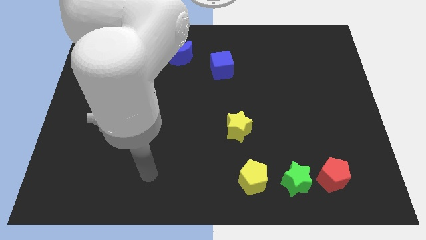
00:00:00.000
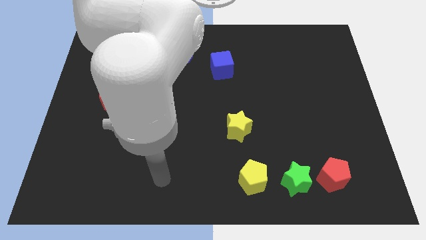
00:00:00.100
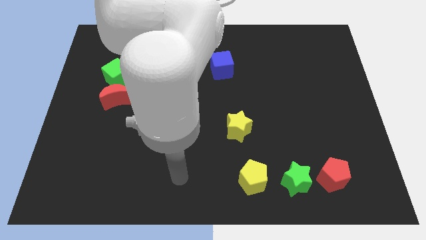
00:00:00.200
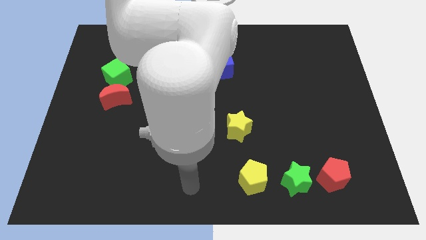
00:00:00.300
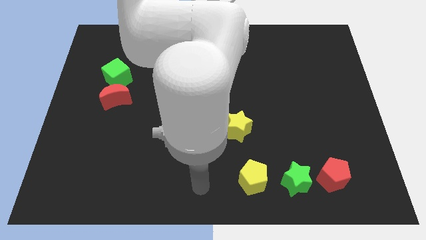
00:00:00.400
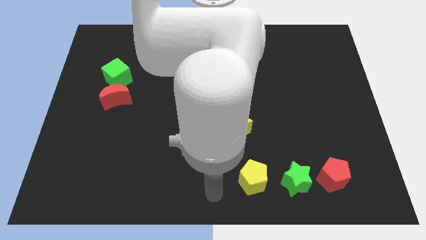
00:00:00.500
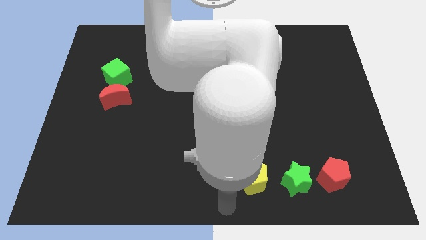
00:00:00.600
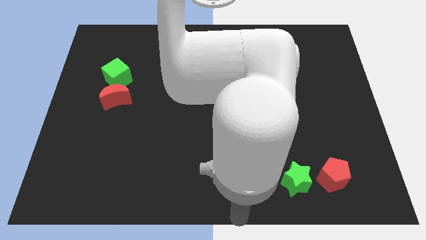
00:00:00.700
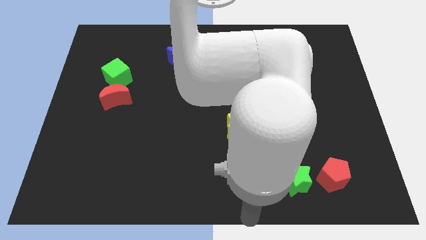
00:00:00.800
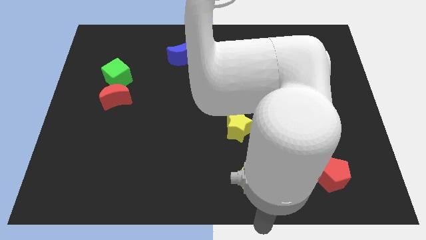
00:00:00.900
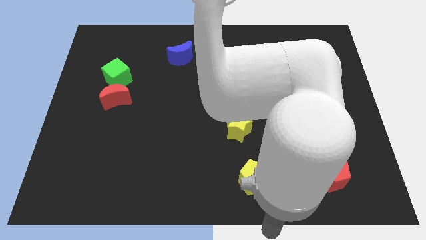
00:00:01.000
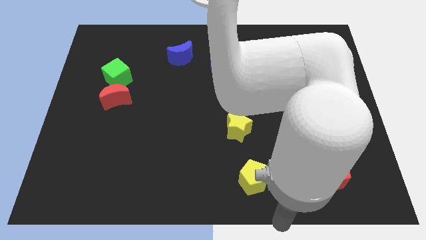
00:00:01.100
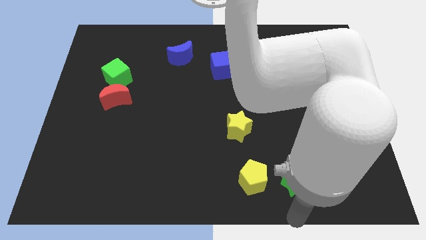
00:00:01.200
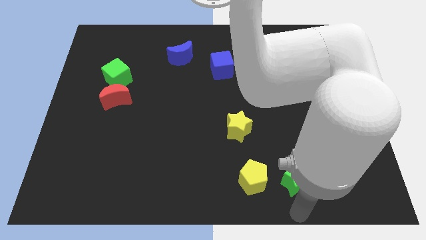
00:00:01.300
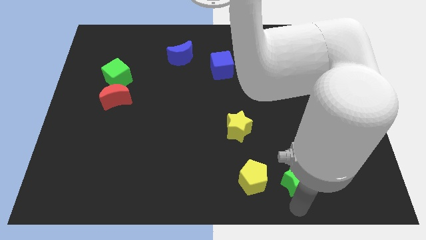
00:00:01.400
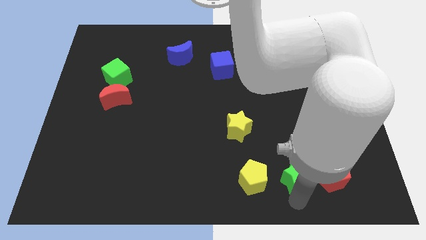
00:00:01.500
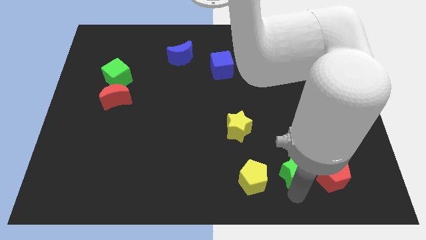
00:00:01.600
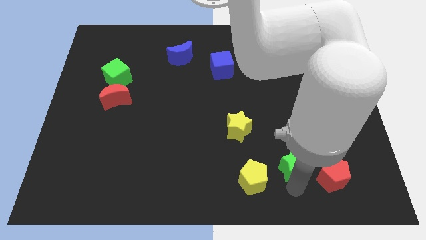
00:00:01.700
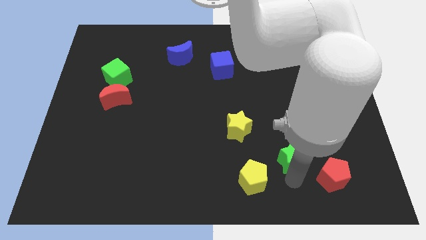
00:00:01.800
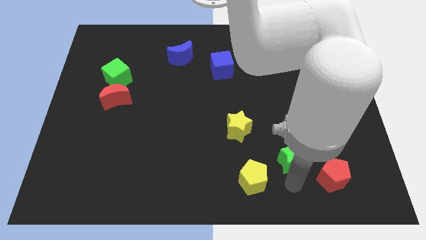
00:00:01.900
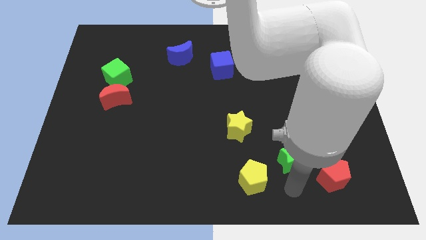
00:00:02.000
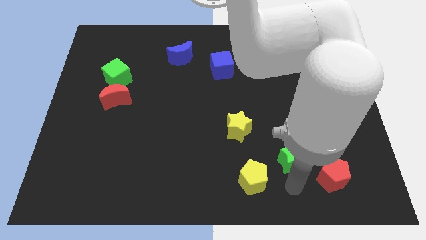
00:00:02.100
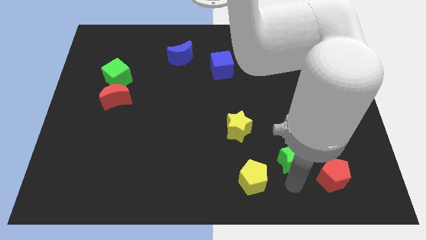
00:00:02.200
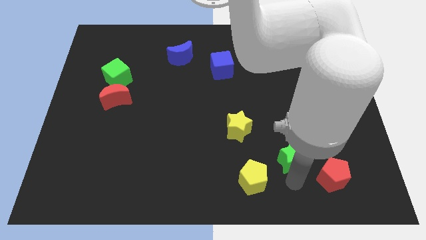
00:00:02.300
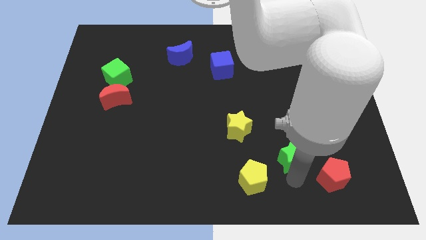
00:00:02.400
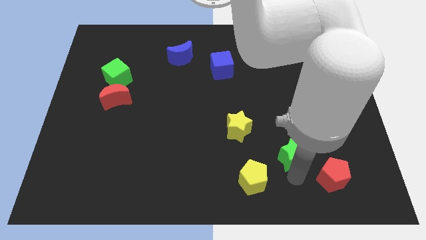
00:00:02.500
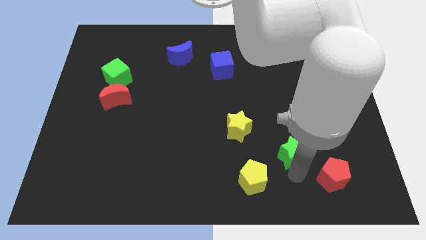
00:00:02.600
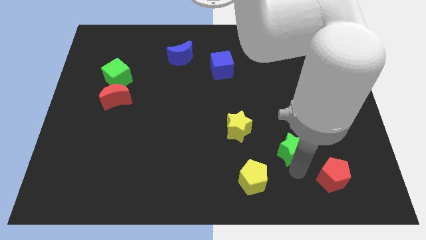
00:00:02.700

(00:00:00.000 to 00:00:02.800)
slightly move the green star up

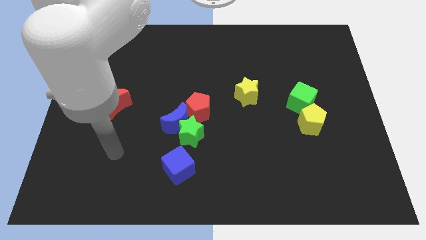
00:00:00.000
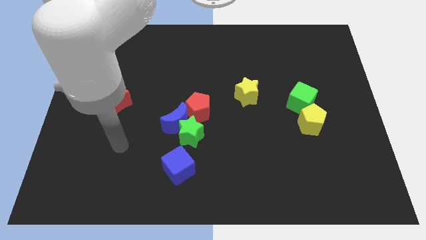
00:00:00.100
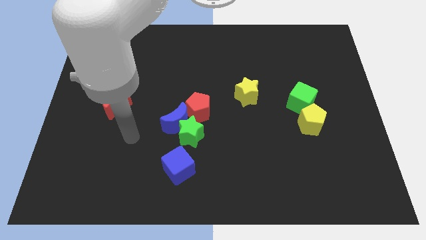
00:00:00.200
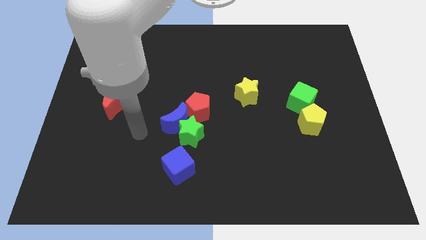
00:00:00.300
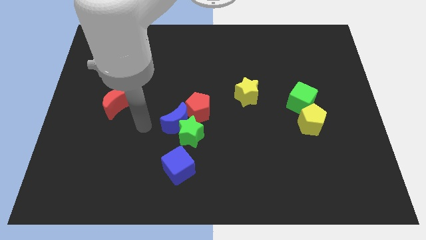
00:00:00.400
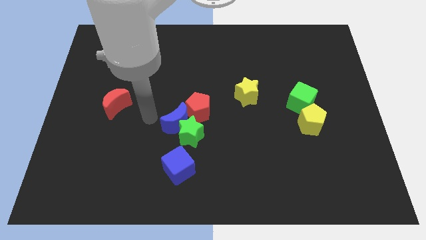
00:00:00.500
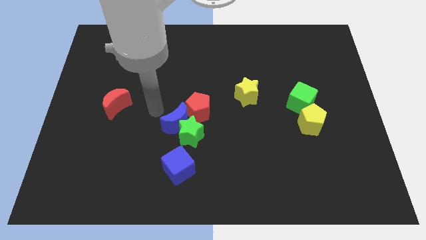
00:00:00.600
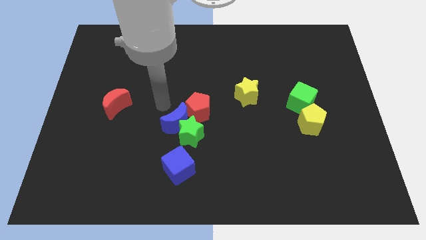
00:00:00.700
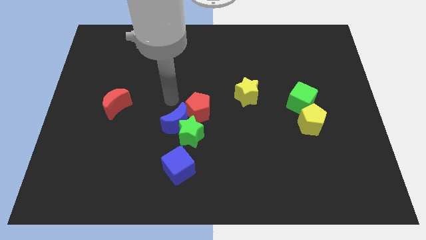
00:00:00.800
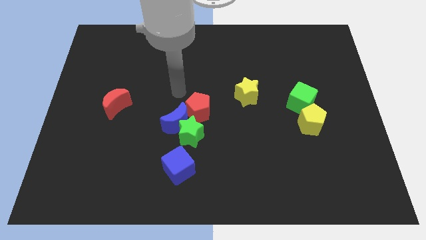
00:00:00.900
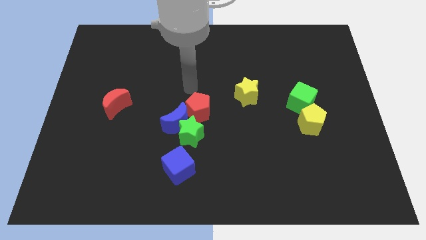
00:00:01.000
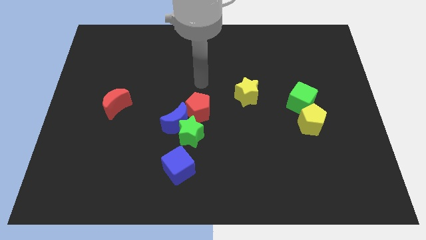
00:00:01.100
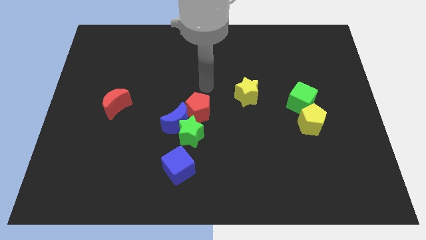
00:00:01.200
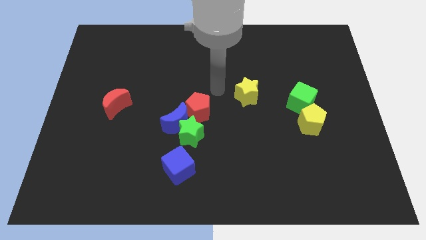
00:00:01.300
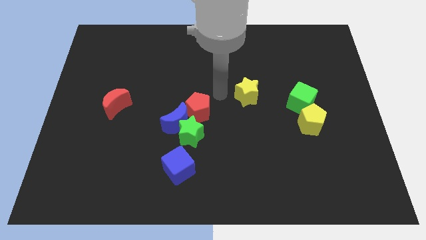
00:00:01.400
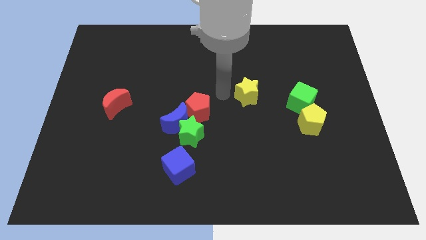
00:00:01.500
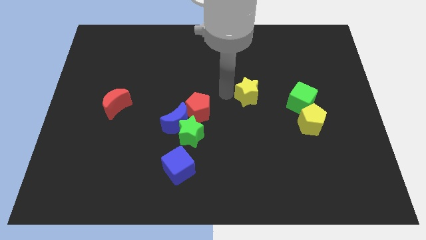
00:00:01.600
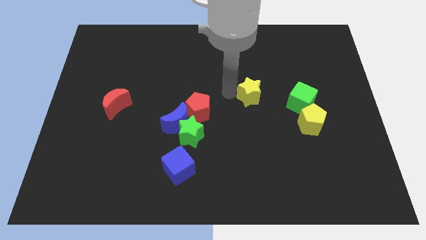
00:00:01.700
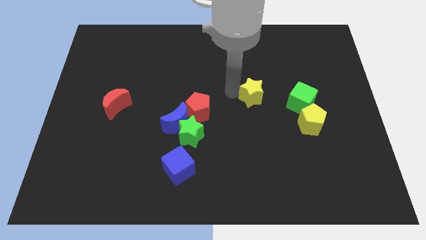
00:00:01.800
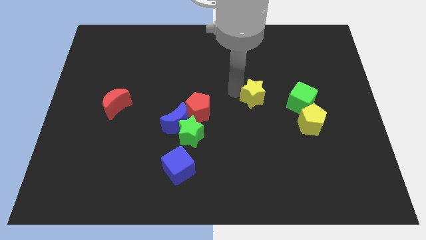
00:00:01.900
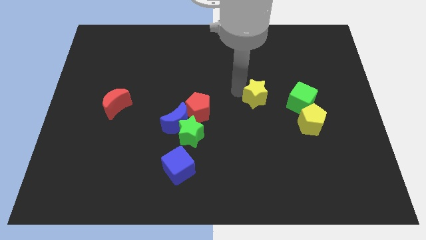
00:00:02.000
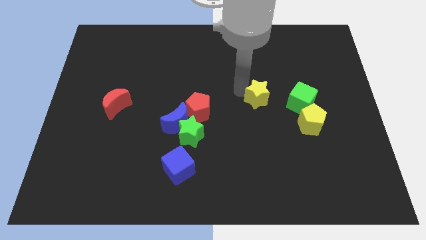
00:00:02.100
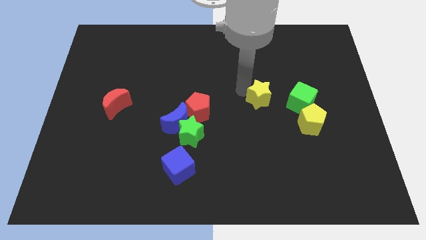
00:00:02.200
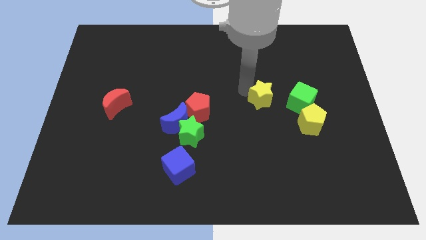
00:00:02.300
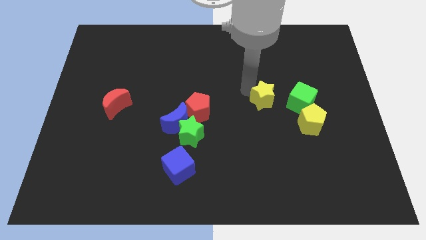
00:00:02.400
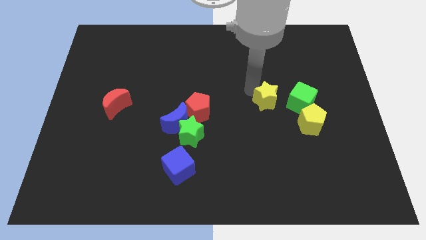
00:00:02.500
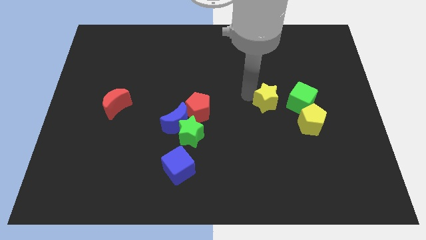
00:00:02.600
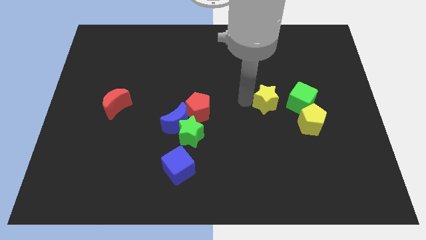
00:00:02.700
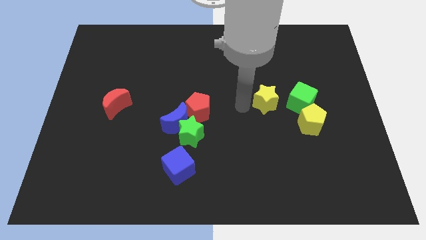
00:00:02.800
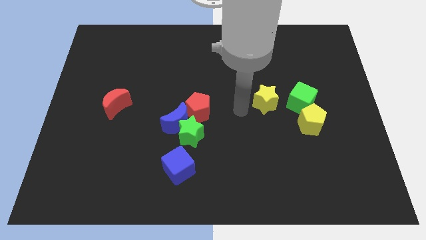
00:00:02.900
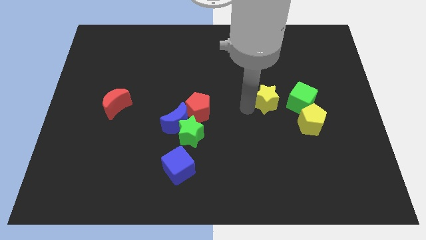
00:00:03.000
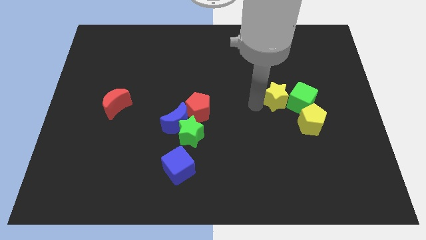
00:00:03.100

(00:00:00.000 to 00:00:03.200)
slightly move the yellow star to the right

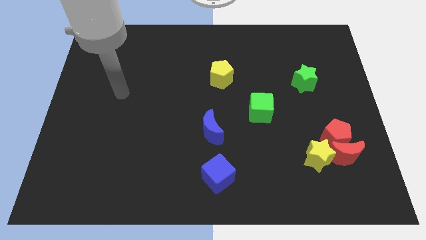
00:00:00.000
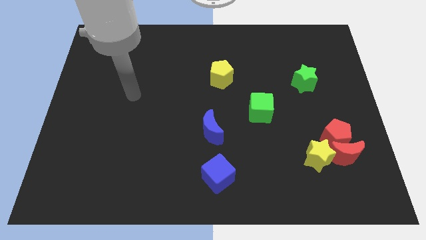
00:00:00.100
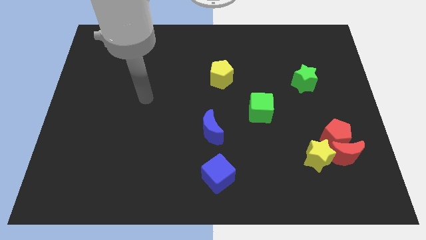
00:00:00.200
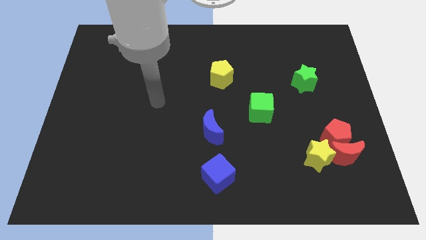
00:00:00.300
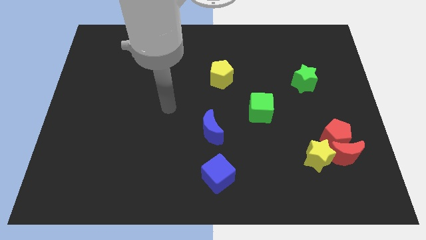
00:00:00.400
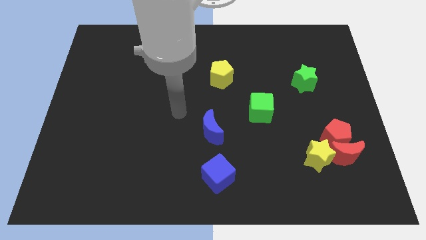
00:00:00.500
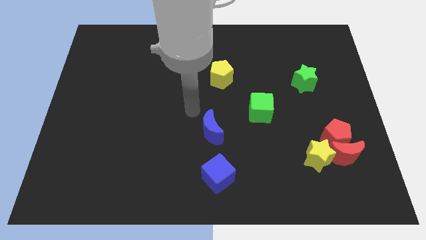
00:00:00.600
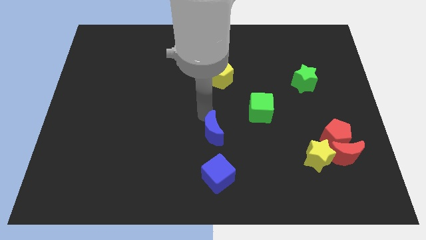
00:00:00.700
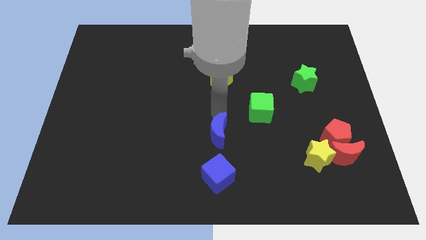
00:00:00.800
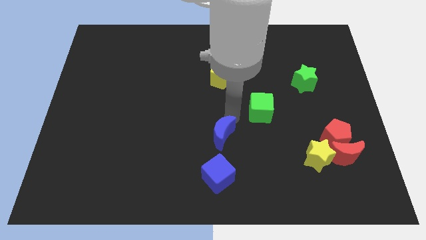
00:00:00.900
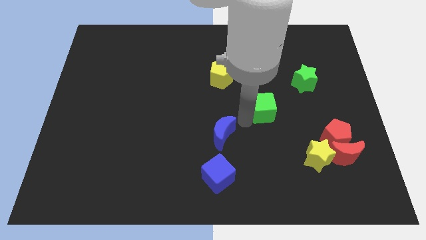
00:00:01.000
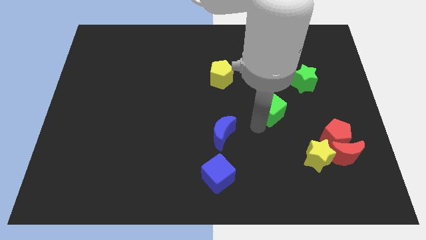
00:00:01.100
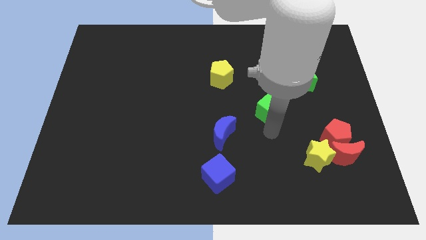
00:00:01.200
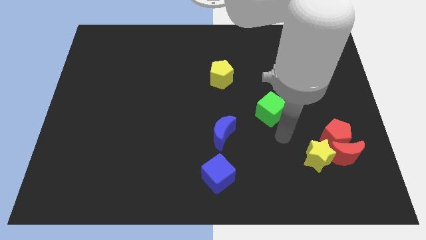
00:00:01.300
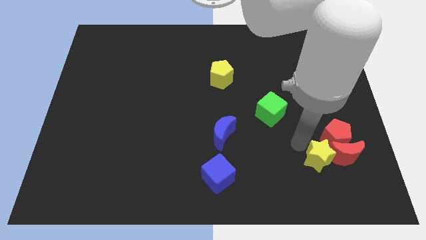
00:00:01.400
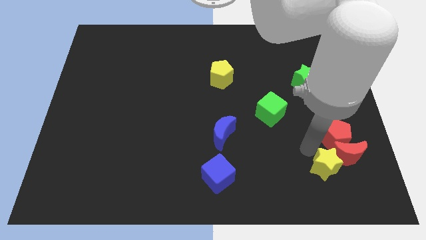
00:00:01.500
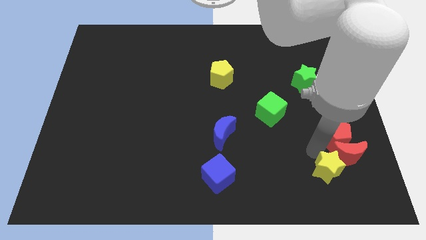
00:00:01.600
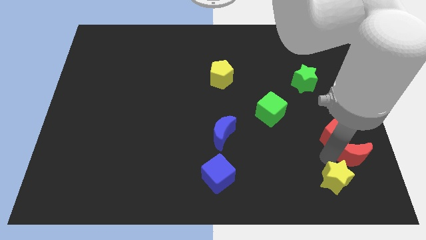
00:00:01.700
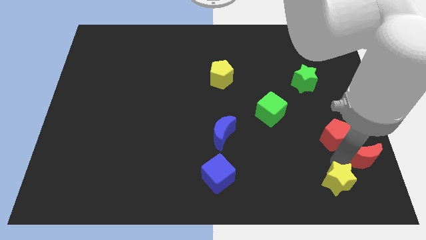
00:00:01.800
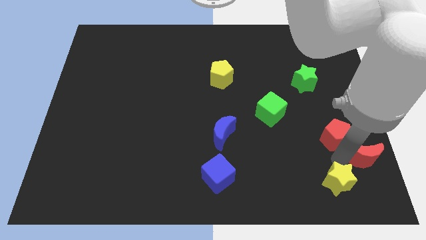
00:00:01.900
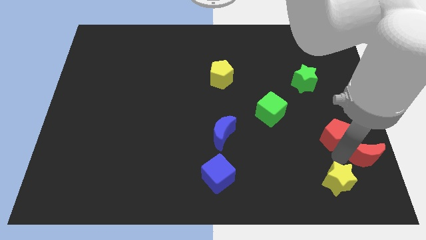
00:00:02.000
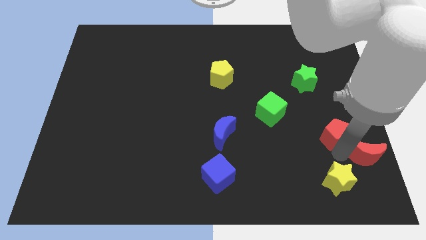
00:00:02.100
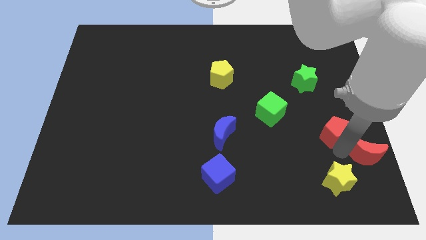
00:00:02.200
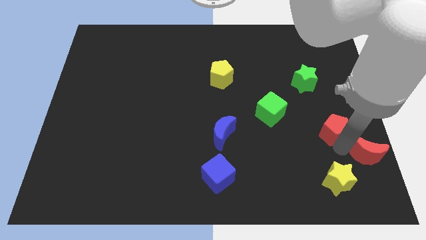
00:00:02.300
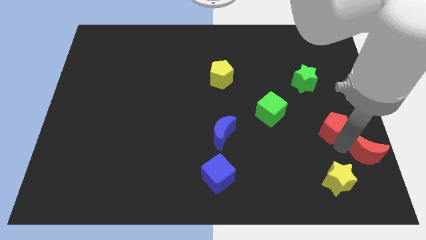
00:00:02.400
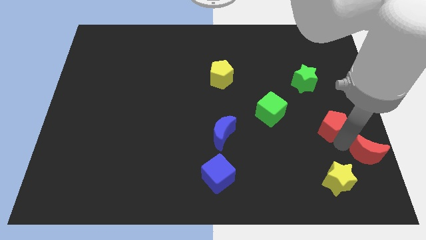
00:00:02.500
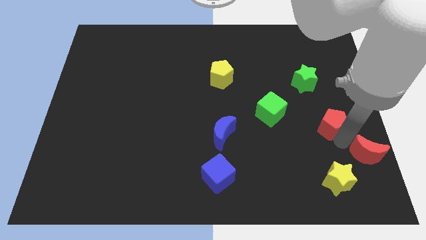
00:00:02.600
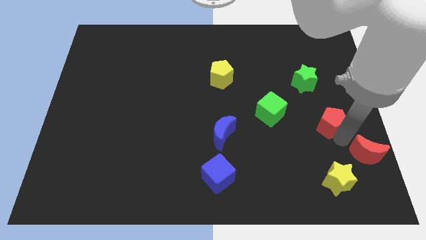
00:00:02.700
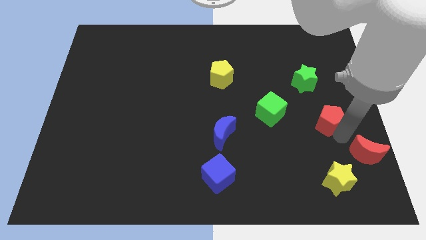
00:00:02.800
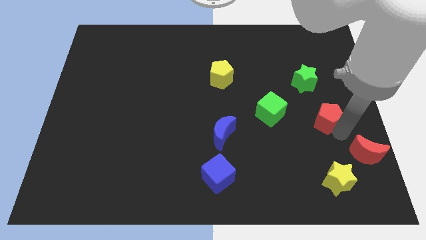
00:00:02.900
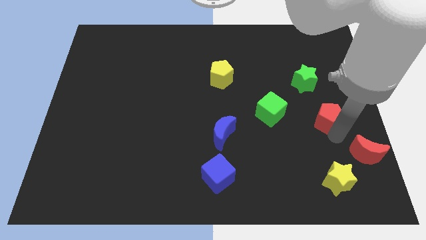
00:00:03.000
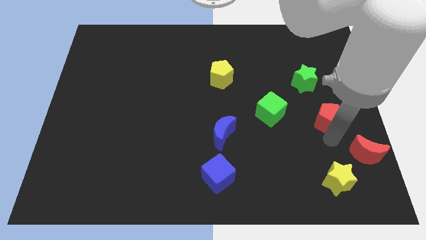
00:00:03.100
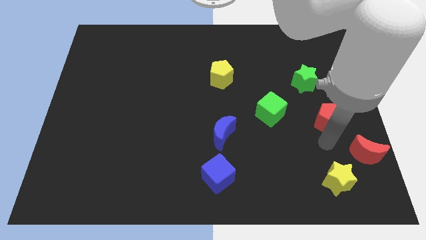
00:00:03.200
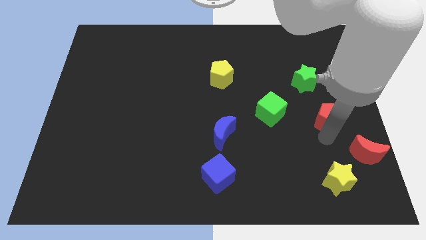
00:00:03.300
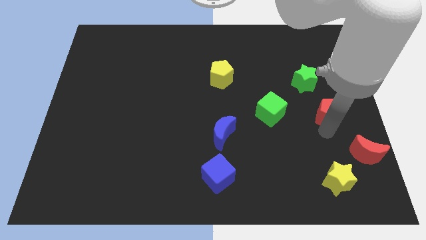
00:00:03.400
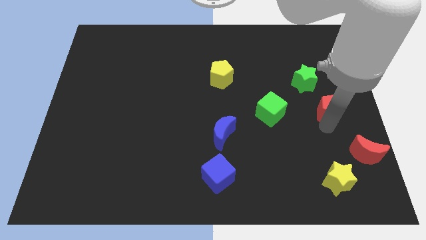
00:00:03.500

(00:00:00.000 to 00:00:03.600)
slightly push the red pentagon upwards
